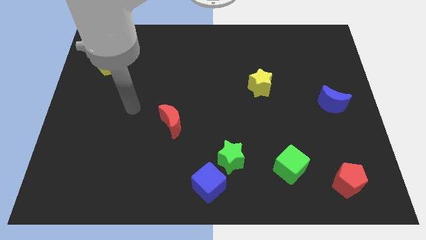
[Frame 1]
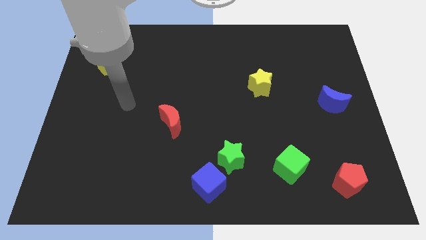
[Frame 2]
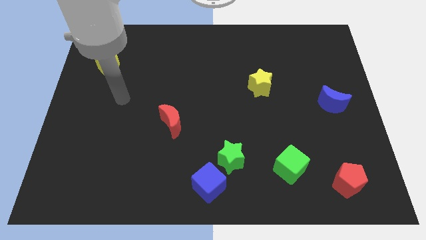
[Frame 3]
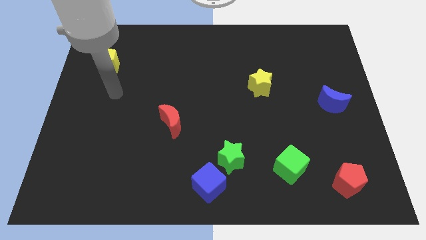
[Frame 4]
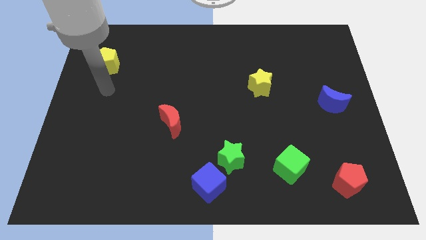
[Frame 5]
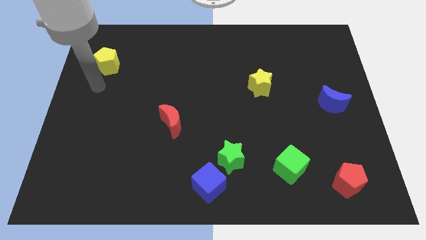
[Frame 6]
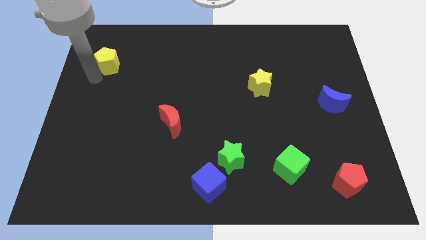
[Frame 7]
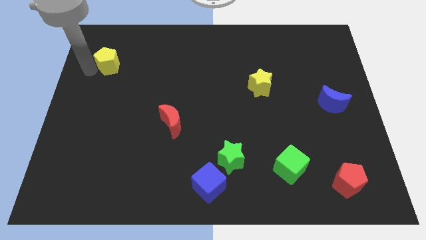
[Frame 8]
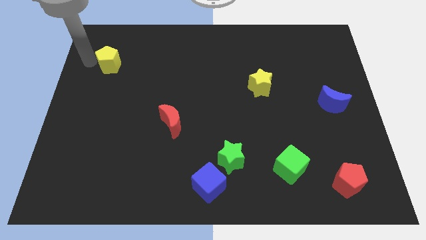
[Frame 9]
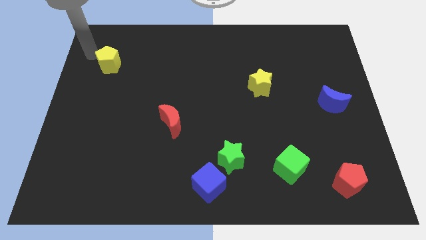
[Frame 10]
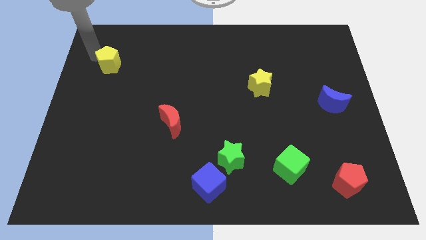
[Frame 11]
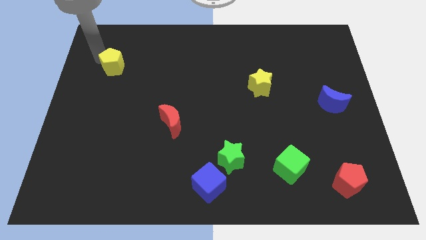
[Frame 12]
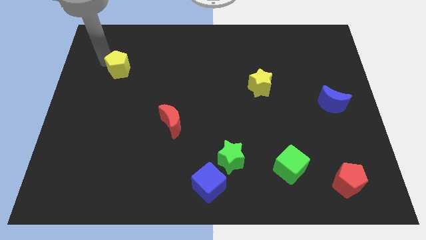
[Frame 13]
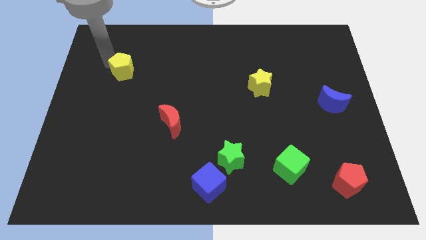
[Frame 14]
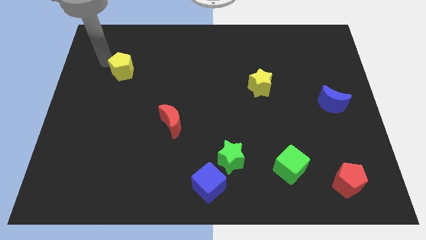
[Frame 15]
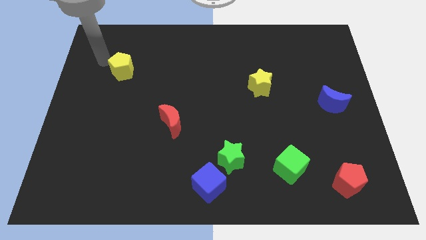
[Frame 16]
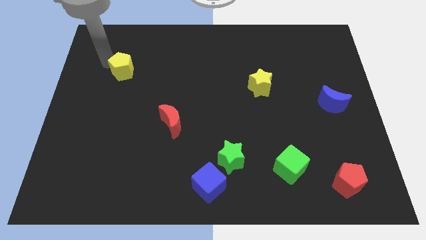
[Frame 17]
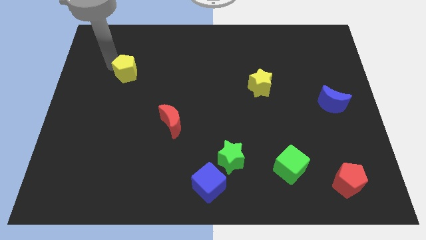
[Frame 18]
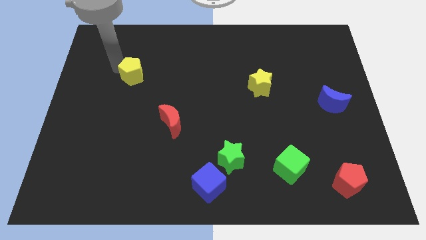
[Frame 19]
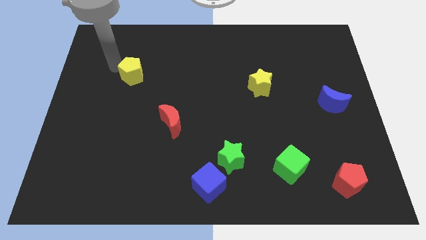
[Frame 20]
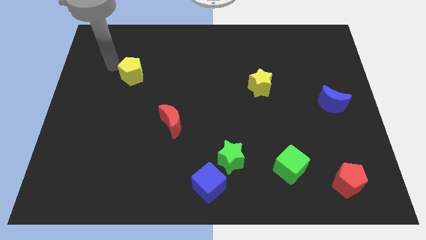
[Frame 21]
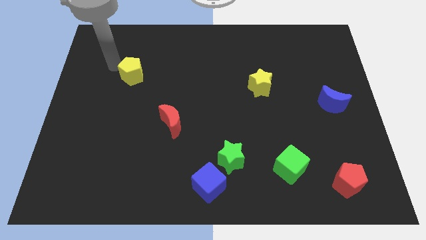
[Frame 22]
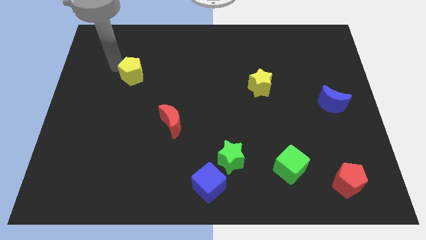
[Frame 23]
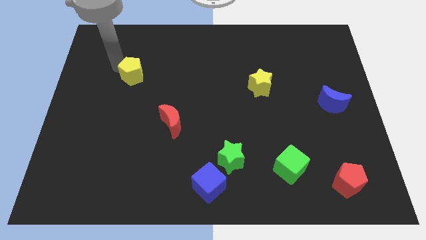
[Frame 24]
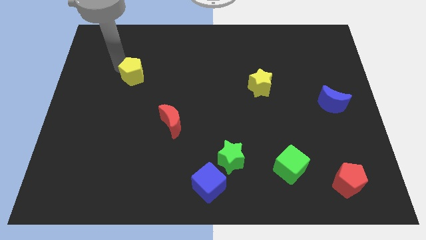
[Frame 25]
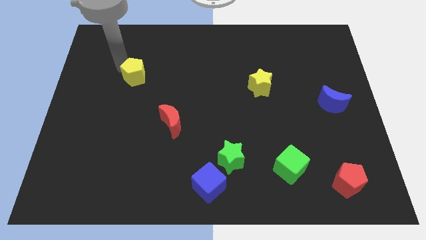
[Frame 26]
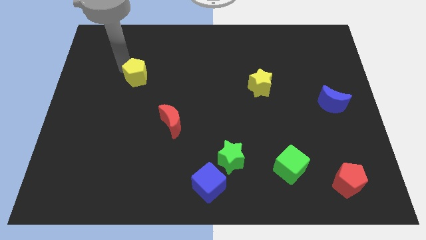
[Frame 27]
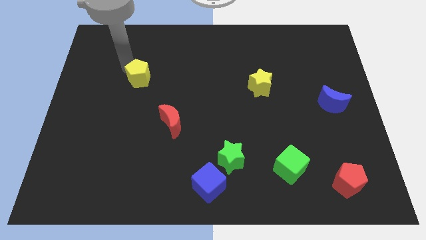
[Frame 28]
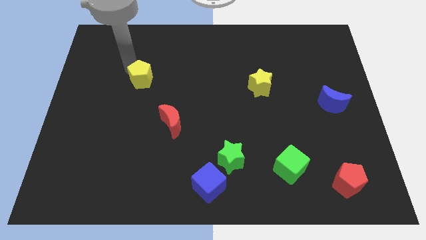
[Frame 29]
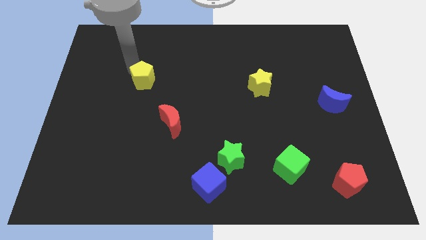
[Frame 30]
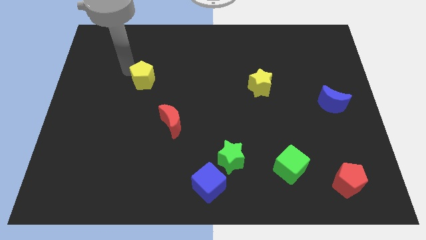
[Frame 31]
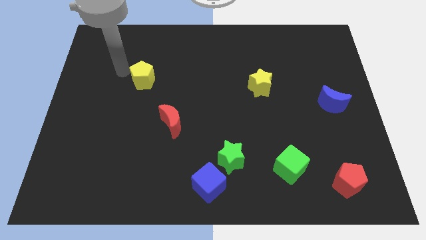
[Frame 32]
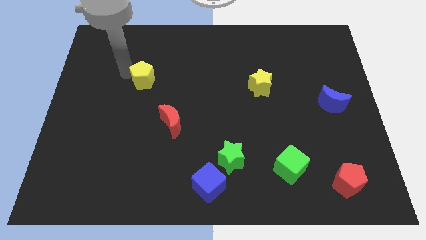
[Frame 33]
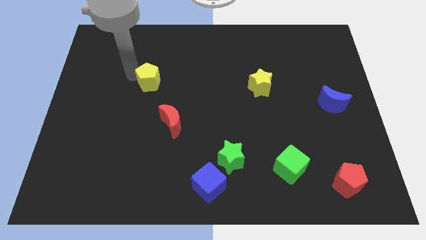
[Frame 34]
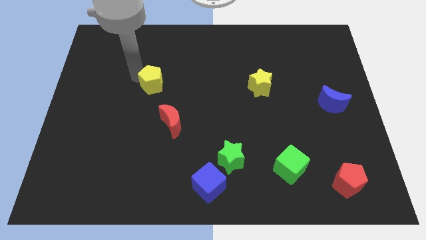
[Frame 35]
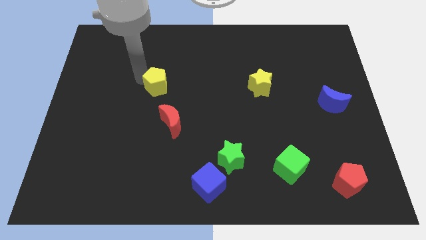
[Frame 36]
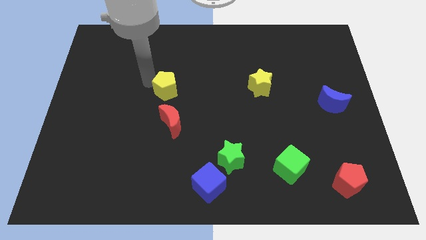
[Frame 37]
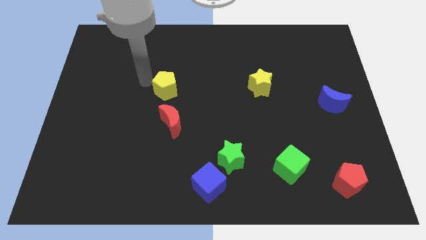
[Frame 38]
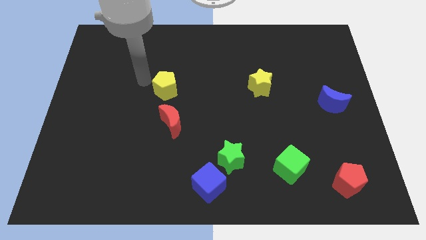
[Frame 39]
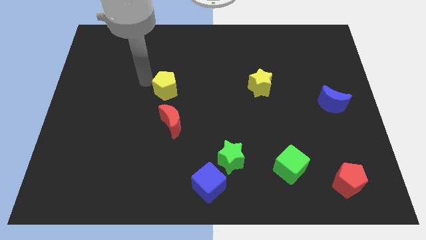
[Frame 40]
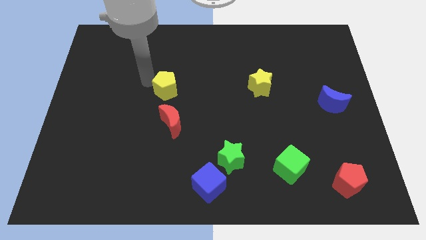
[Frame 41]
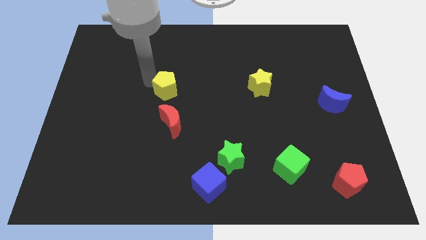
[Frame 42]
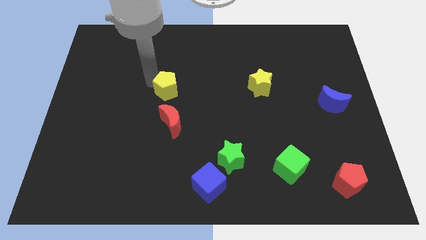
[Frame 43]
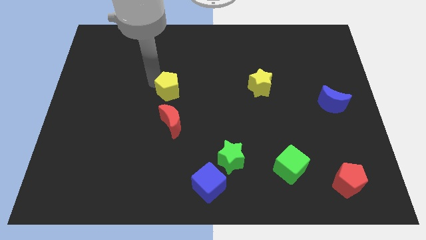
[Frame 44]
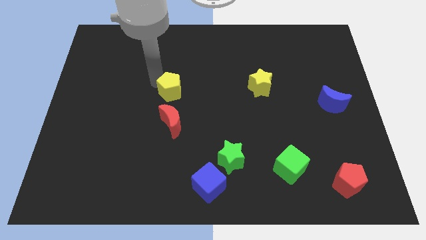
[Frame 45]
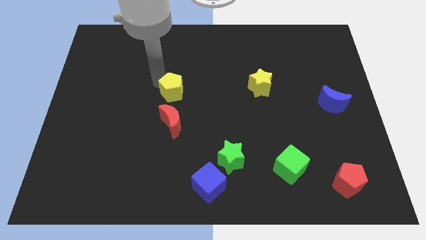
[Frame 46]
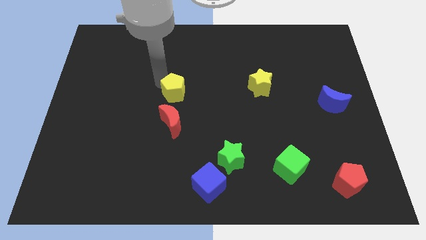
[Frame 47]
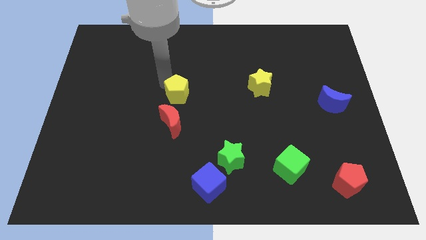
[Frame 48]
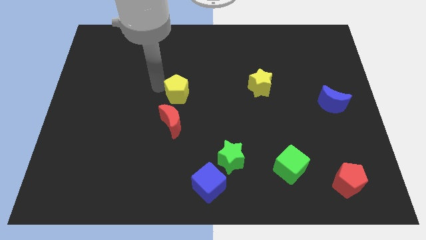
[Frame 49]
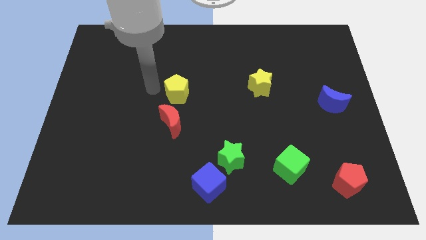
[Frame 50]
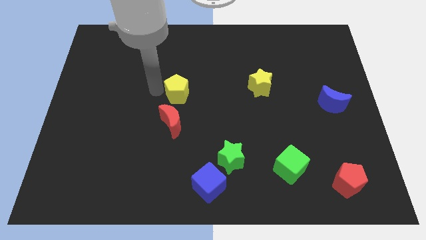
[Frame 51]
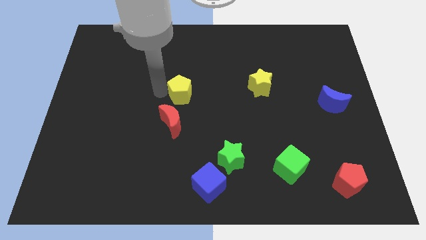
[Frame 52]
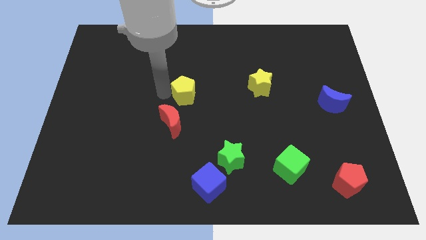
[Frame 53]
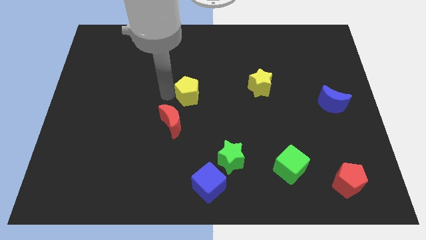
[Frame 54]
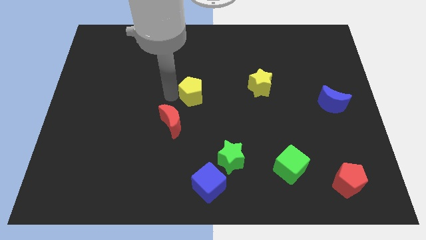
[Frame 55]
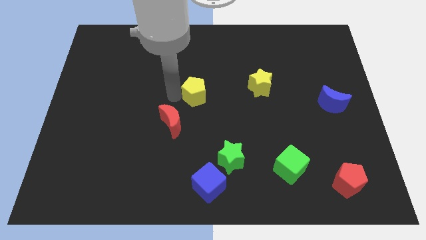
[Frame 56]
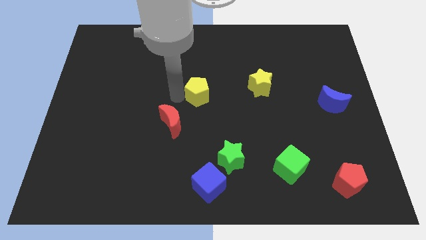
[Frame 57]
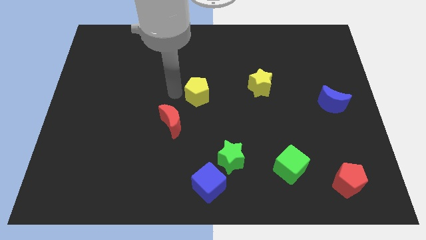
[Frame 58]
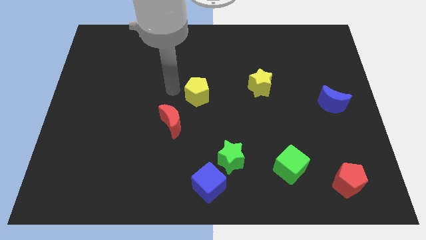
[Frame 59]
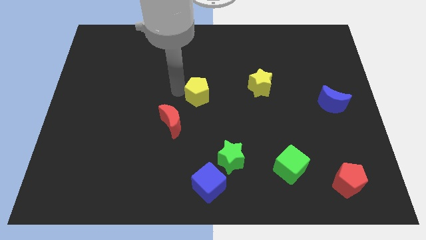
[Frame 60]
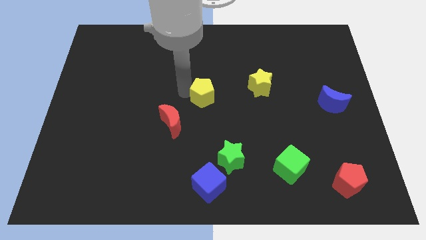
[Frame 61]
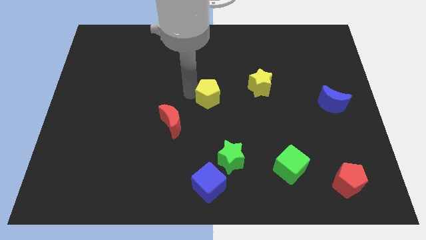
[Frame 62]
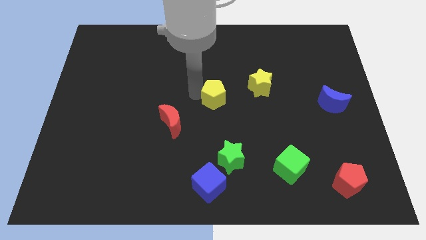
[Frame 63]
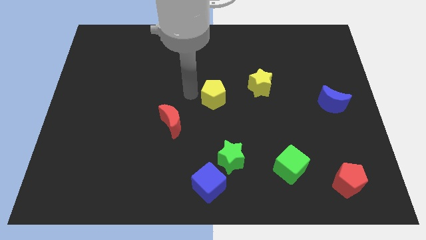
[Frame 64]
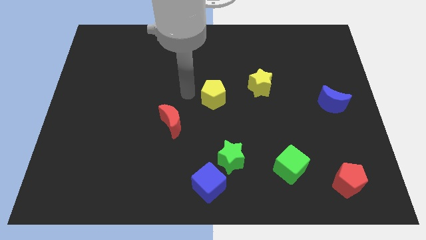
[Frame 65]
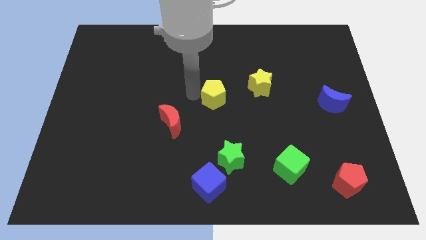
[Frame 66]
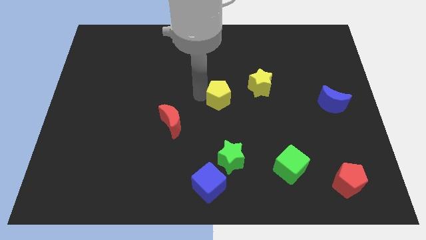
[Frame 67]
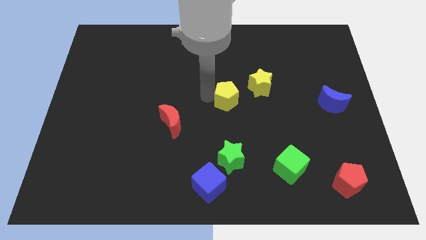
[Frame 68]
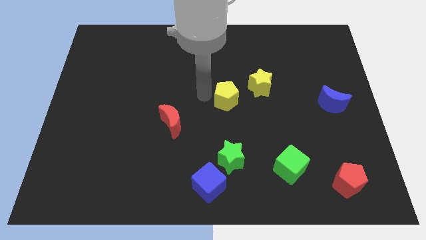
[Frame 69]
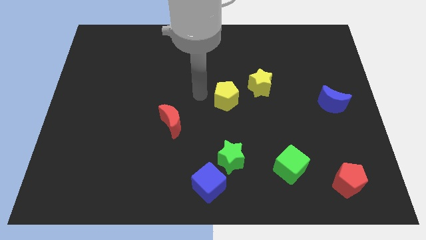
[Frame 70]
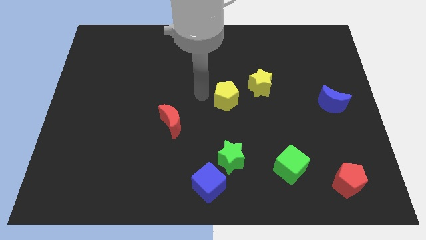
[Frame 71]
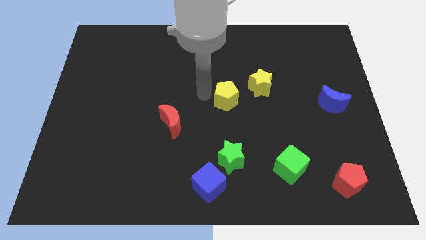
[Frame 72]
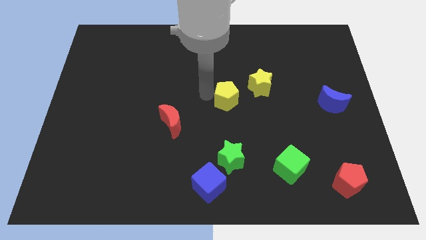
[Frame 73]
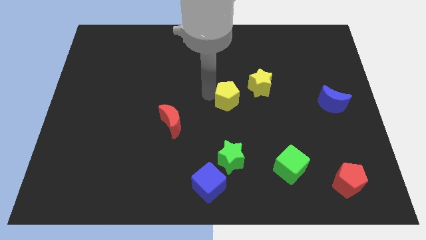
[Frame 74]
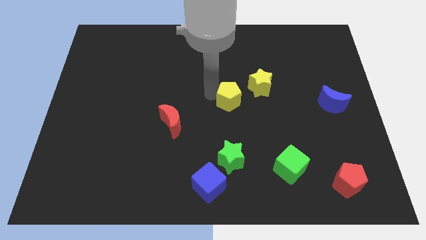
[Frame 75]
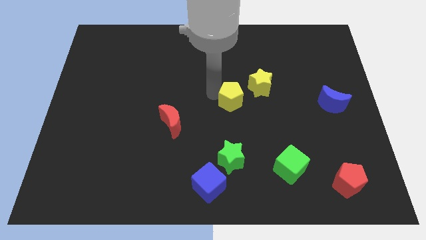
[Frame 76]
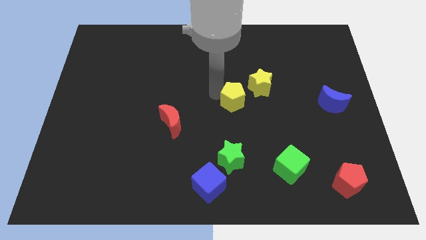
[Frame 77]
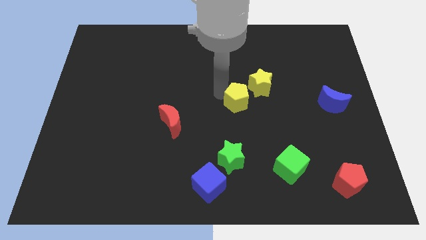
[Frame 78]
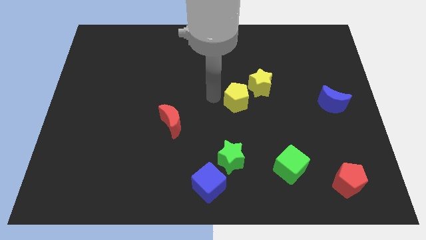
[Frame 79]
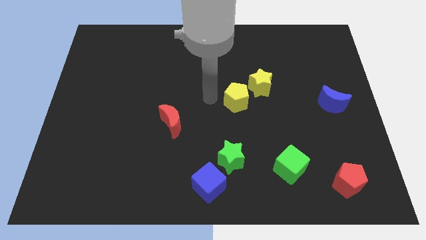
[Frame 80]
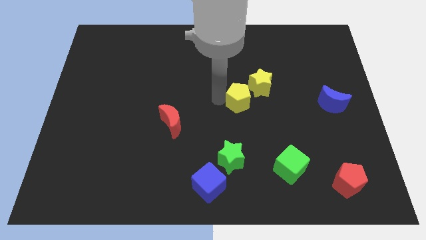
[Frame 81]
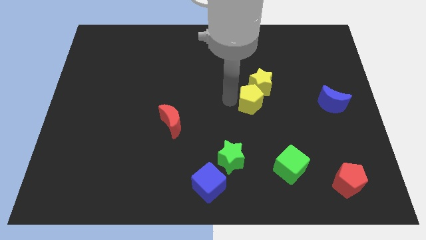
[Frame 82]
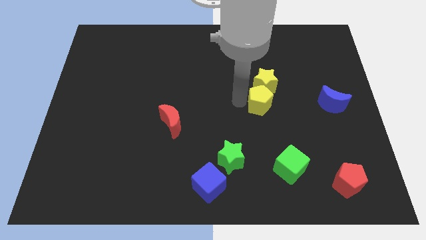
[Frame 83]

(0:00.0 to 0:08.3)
move the yellow pentagon to the bottom right side of the yellow star
